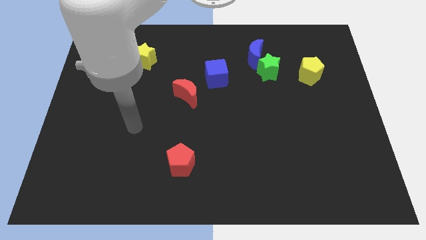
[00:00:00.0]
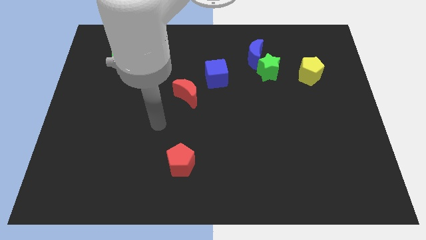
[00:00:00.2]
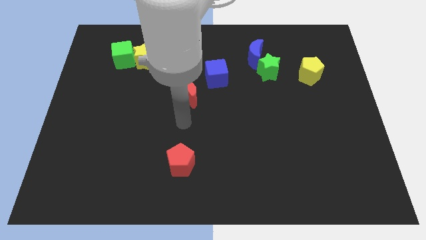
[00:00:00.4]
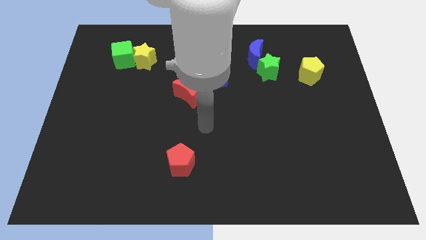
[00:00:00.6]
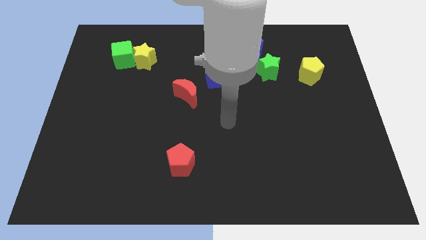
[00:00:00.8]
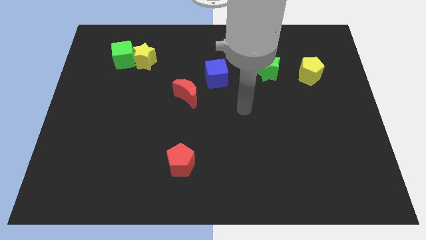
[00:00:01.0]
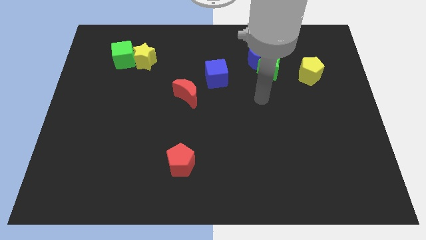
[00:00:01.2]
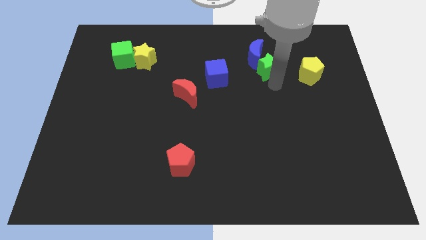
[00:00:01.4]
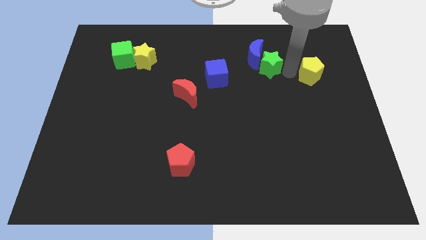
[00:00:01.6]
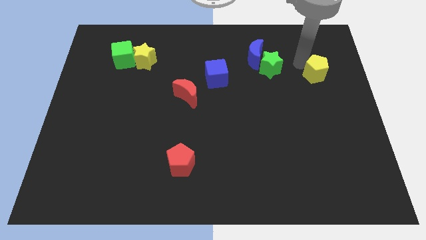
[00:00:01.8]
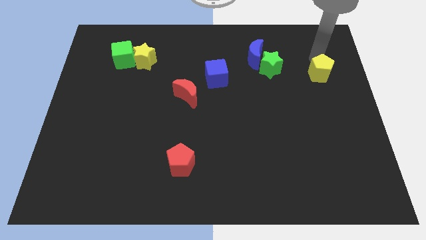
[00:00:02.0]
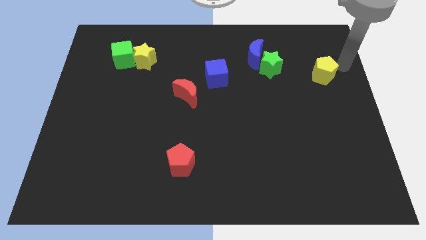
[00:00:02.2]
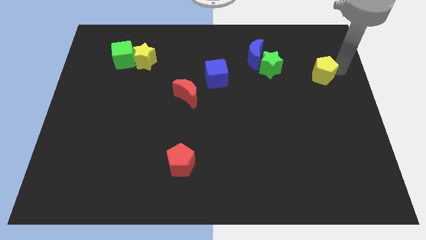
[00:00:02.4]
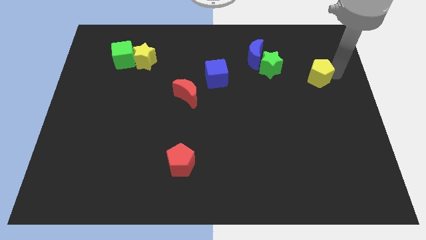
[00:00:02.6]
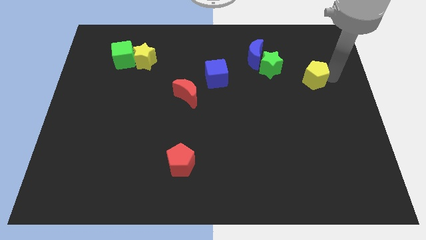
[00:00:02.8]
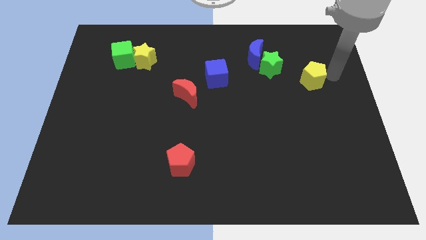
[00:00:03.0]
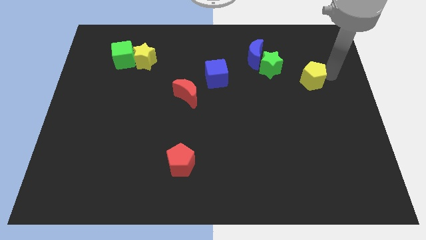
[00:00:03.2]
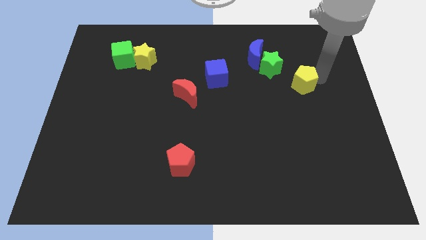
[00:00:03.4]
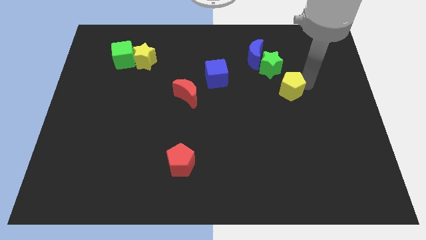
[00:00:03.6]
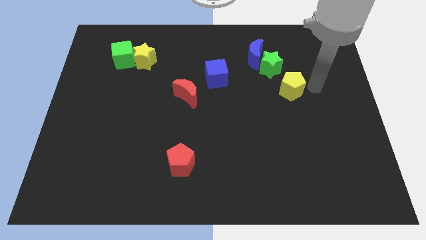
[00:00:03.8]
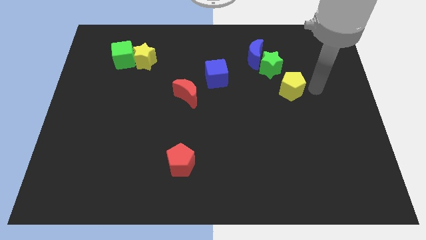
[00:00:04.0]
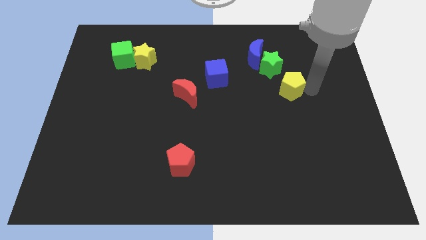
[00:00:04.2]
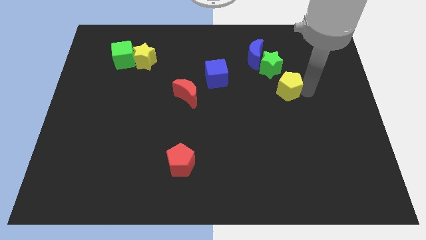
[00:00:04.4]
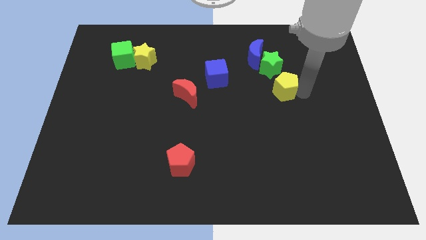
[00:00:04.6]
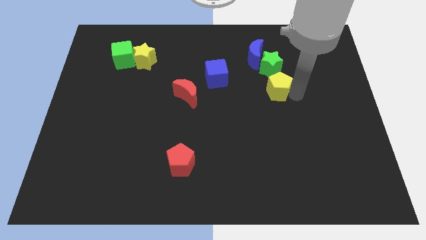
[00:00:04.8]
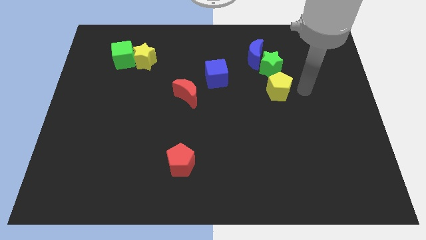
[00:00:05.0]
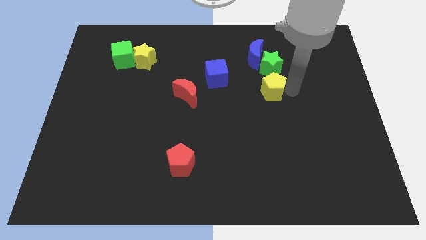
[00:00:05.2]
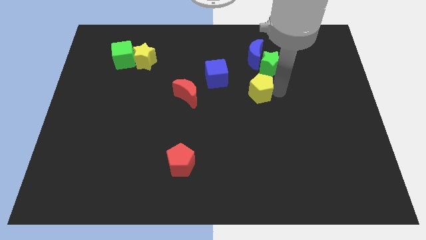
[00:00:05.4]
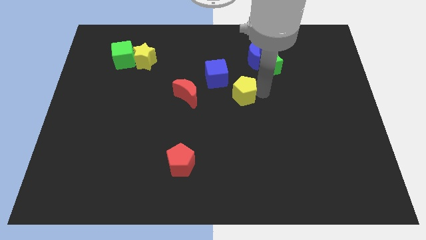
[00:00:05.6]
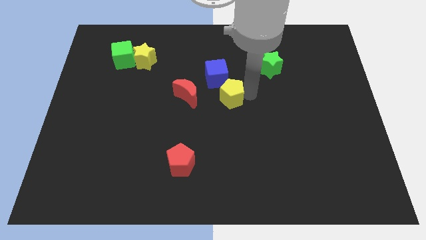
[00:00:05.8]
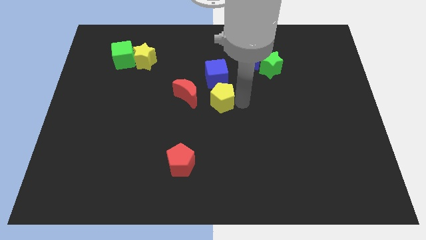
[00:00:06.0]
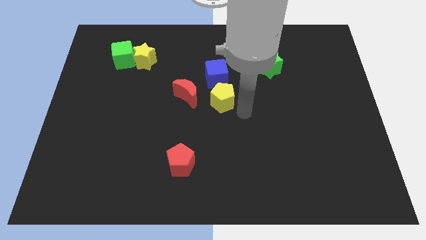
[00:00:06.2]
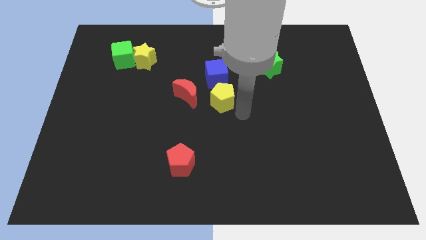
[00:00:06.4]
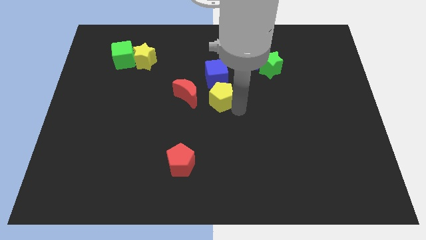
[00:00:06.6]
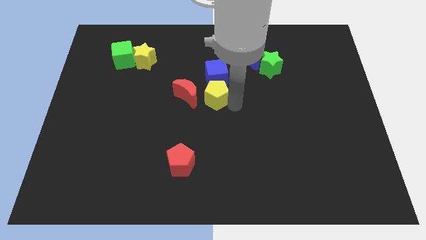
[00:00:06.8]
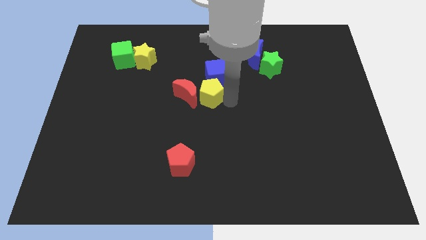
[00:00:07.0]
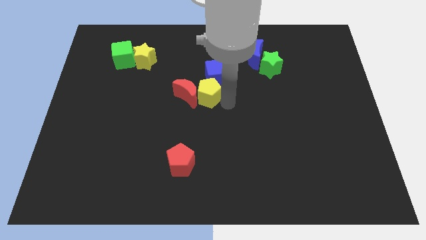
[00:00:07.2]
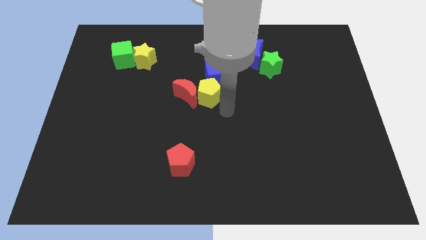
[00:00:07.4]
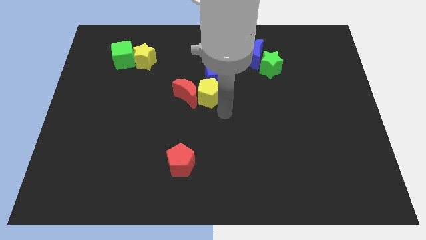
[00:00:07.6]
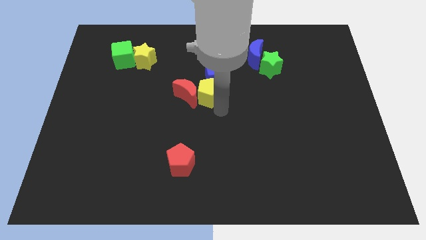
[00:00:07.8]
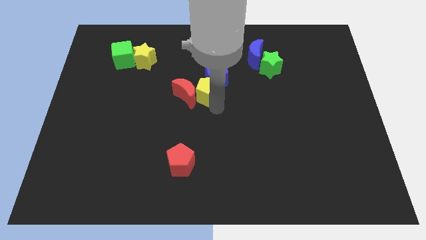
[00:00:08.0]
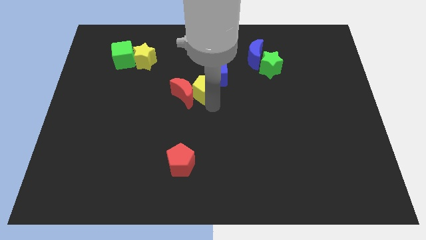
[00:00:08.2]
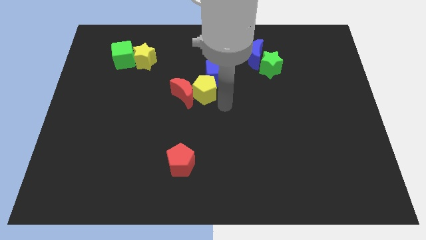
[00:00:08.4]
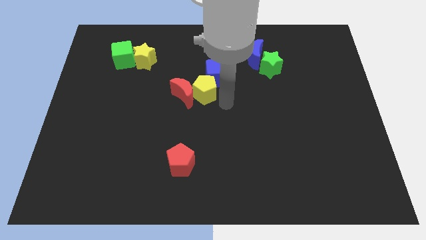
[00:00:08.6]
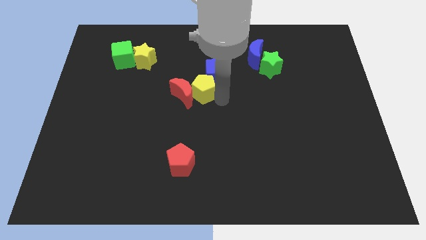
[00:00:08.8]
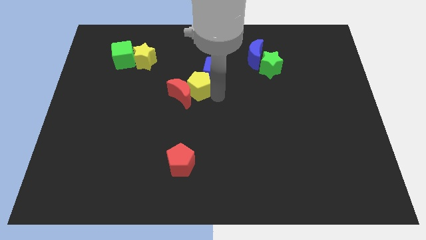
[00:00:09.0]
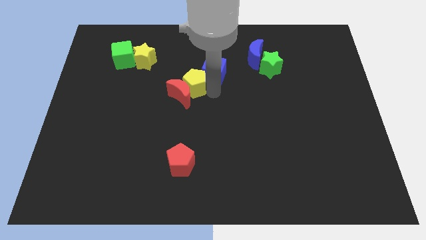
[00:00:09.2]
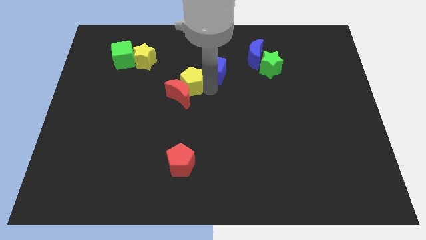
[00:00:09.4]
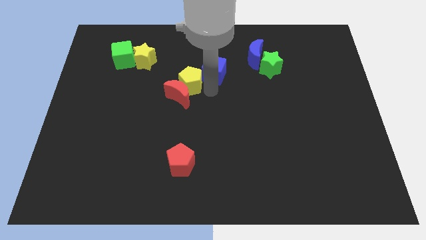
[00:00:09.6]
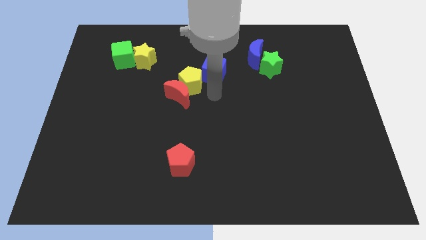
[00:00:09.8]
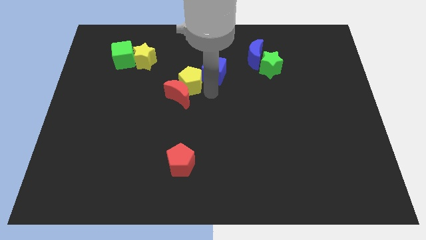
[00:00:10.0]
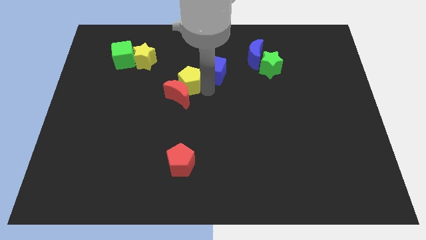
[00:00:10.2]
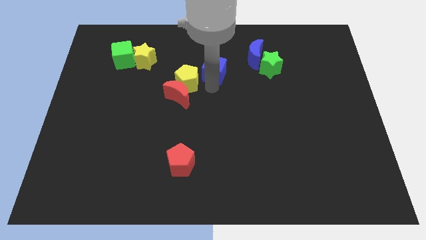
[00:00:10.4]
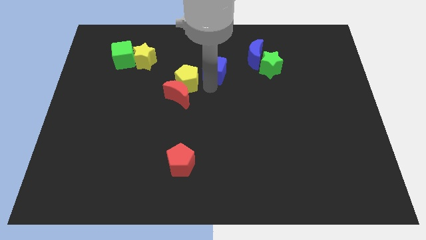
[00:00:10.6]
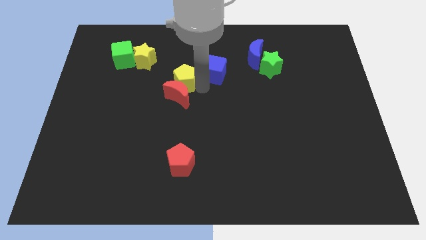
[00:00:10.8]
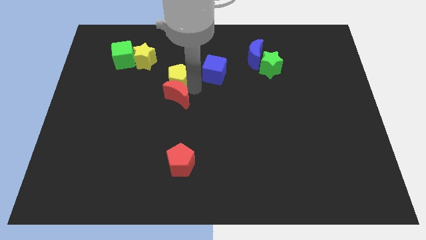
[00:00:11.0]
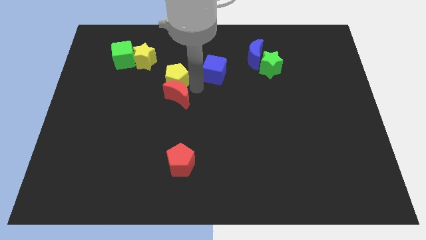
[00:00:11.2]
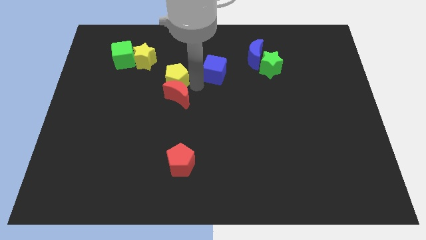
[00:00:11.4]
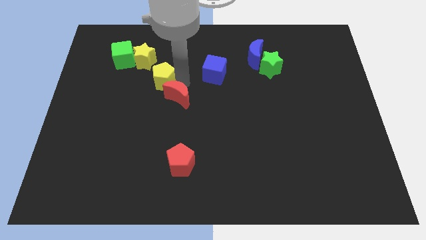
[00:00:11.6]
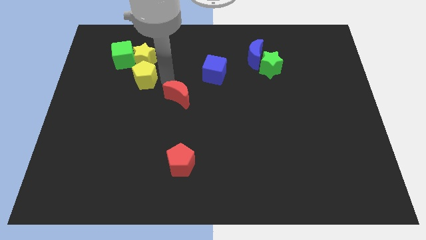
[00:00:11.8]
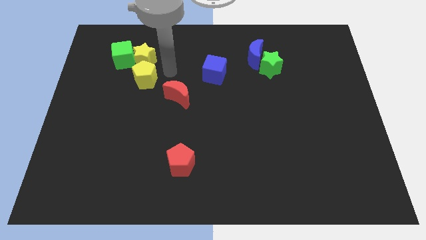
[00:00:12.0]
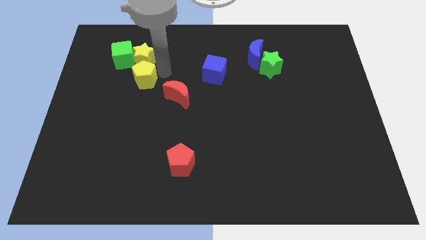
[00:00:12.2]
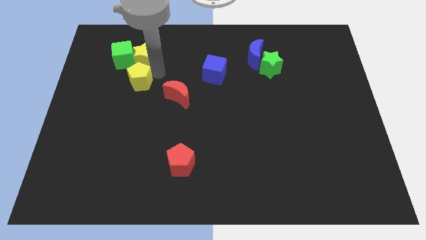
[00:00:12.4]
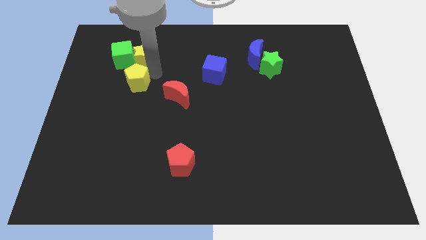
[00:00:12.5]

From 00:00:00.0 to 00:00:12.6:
move the yellow pentagon to the bottom of the green cube
